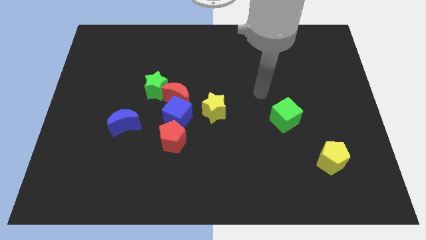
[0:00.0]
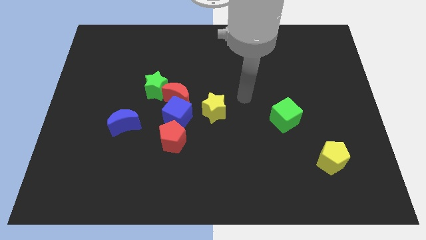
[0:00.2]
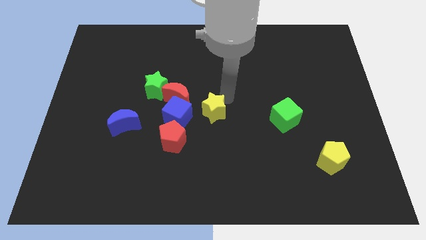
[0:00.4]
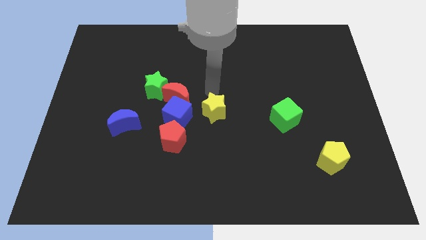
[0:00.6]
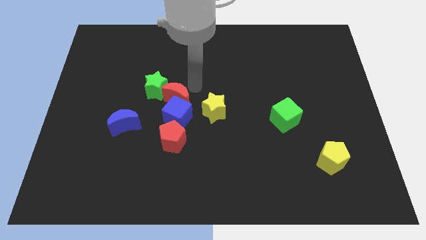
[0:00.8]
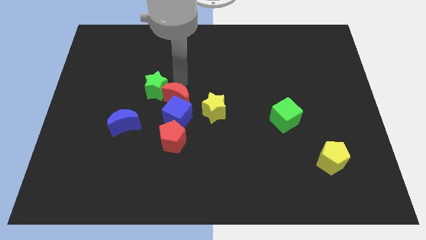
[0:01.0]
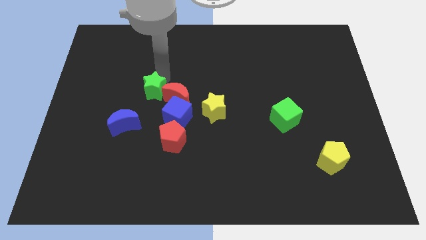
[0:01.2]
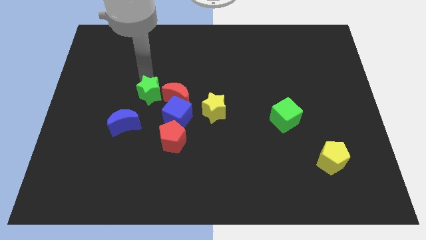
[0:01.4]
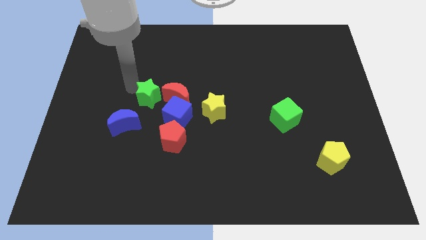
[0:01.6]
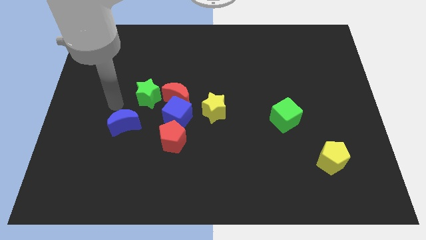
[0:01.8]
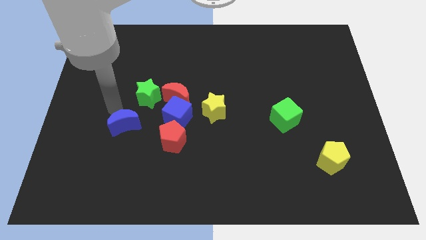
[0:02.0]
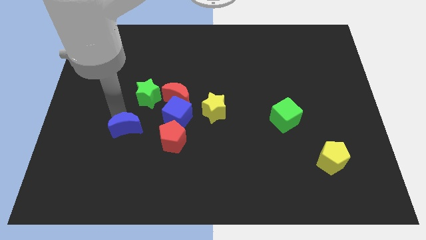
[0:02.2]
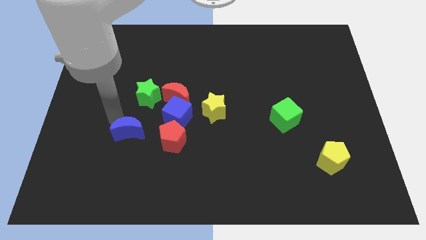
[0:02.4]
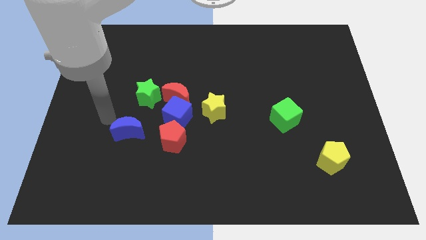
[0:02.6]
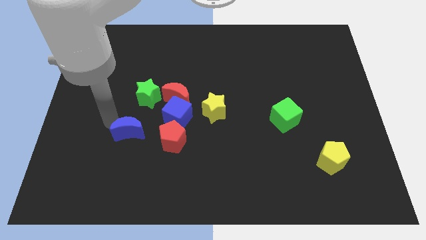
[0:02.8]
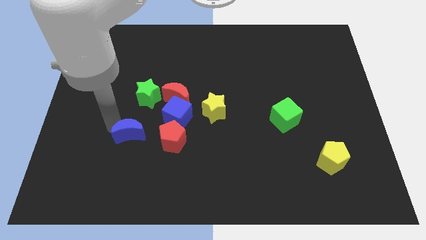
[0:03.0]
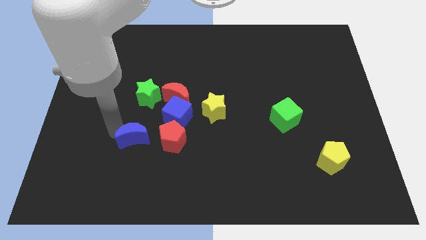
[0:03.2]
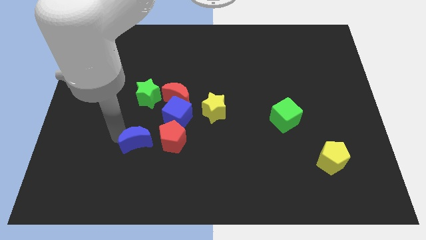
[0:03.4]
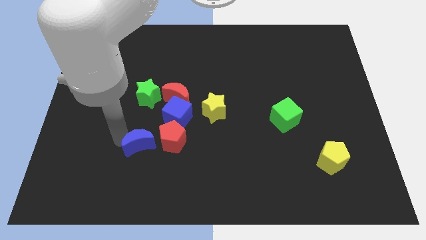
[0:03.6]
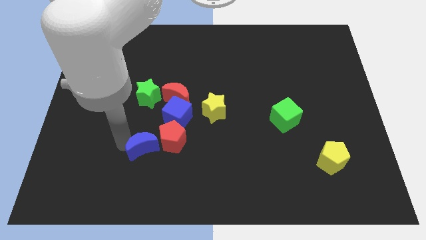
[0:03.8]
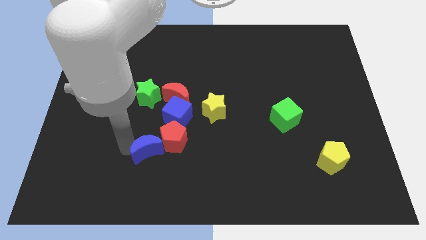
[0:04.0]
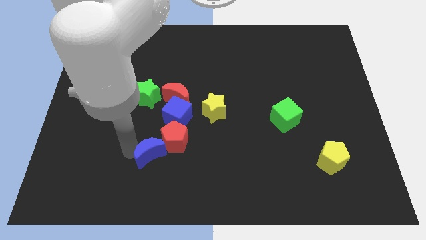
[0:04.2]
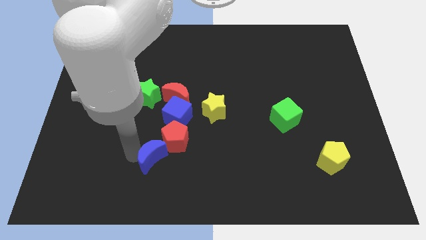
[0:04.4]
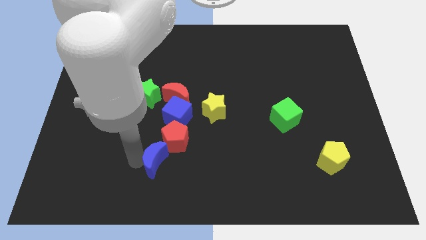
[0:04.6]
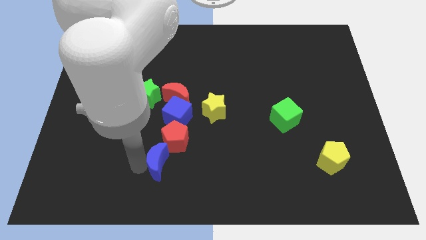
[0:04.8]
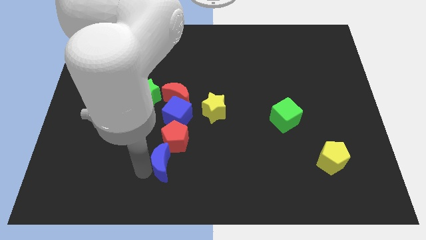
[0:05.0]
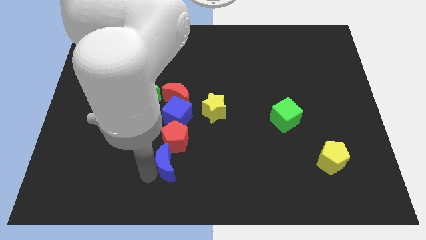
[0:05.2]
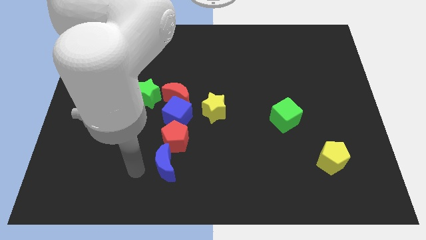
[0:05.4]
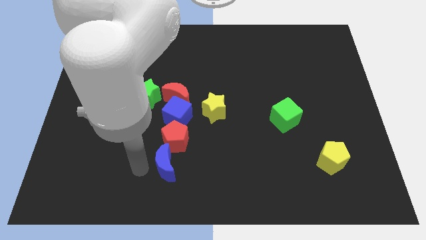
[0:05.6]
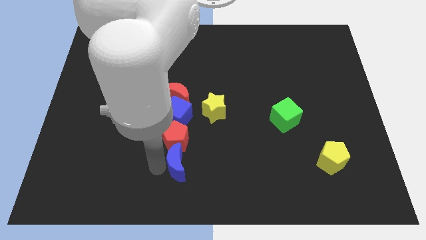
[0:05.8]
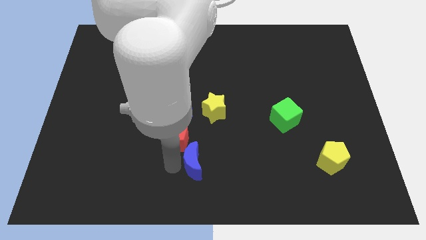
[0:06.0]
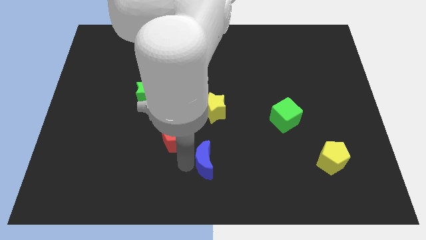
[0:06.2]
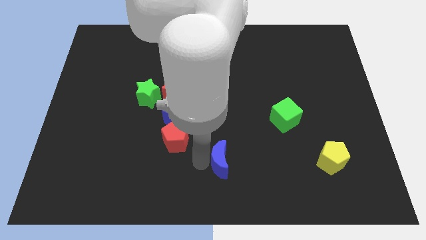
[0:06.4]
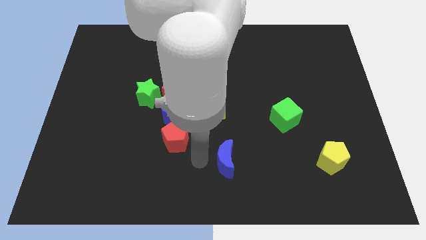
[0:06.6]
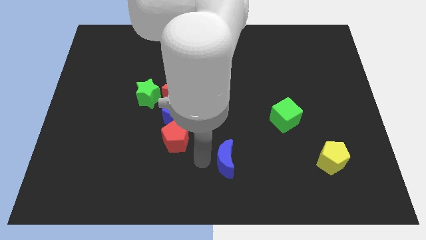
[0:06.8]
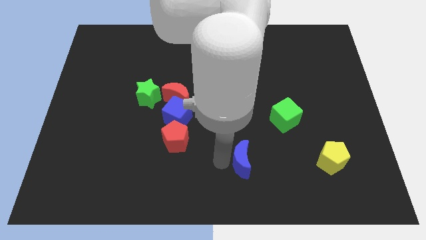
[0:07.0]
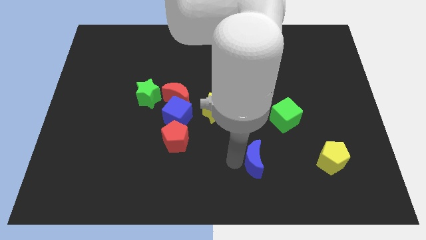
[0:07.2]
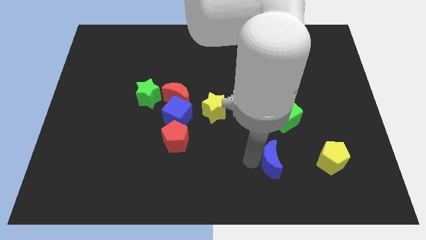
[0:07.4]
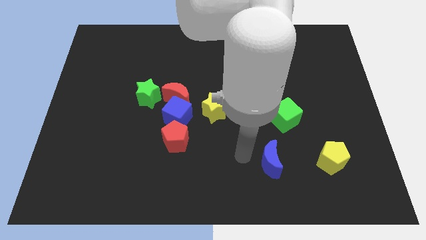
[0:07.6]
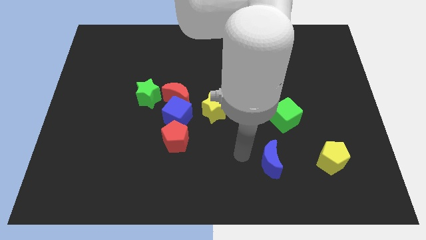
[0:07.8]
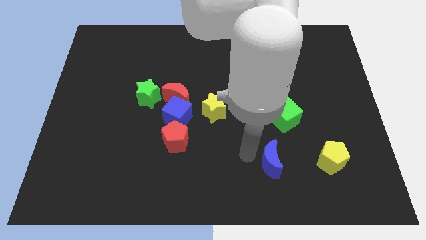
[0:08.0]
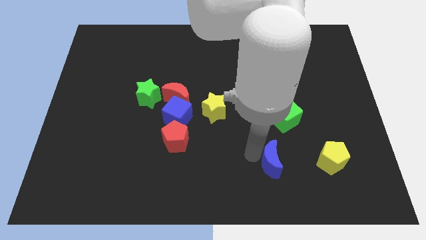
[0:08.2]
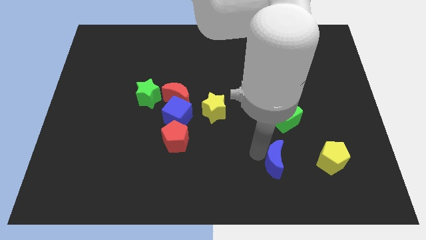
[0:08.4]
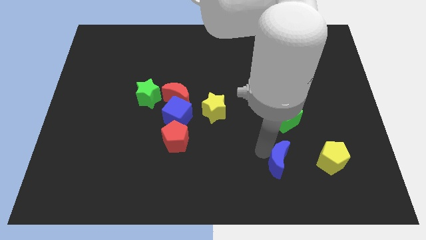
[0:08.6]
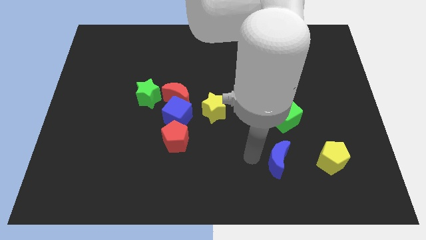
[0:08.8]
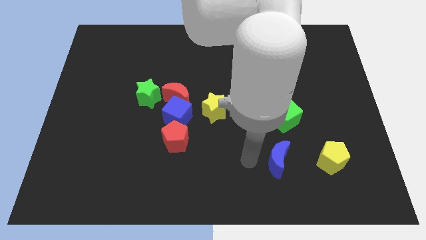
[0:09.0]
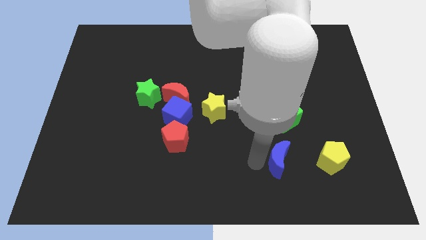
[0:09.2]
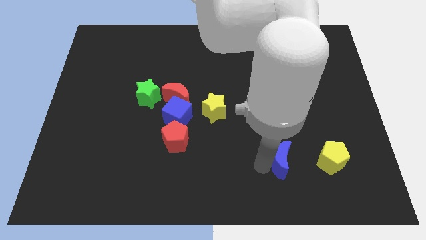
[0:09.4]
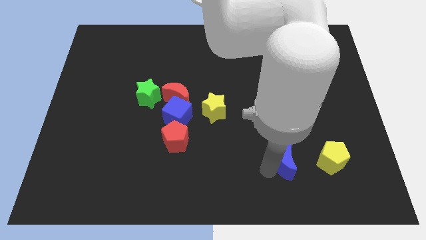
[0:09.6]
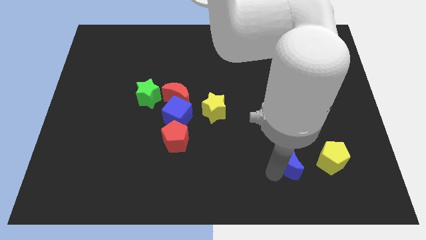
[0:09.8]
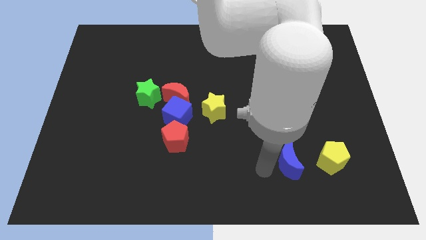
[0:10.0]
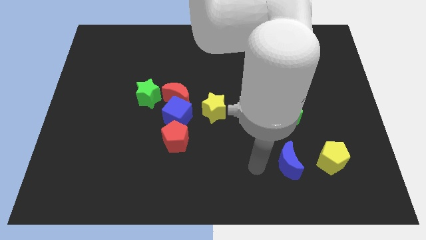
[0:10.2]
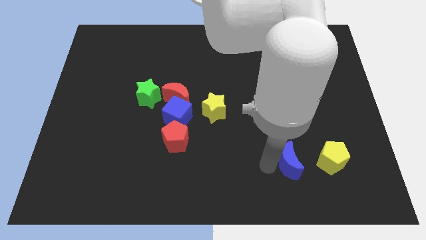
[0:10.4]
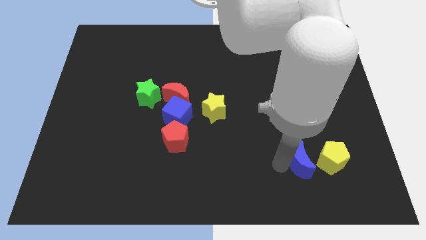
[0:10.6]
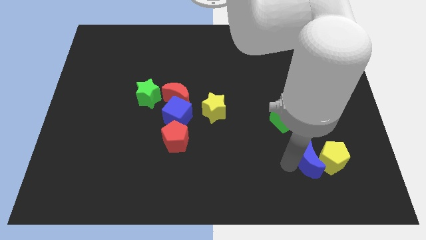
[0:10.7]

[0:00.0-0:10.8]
move the blue moon next to the yellow pentagon

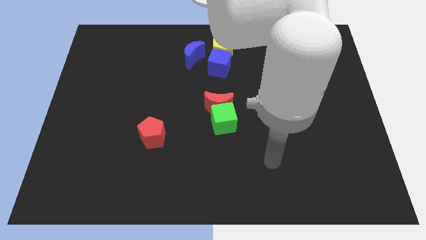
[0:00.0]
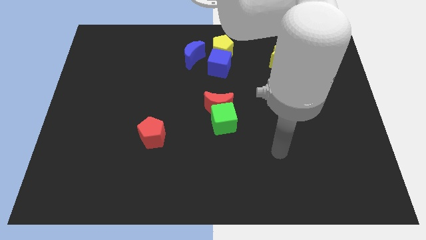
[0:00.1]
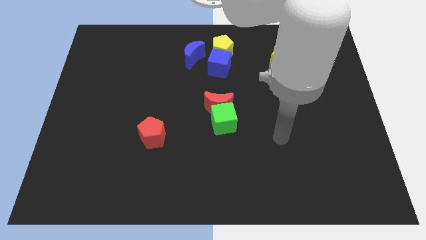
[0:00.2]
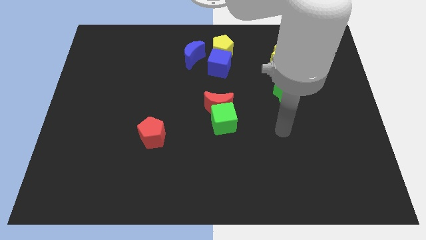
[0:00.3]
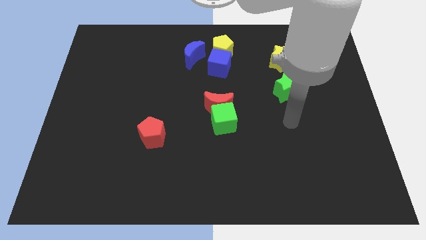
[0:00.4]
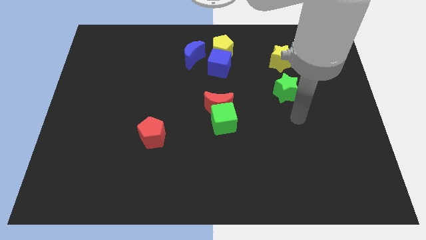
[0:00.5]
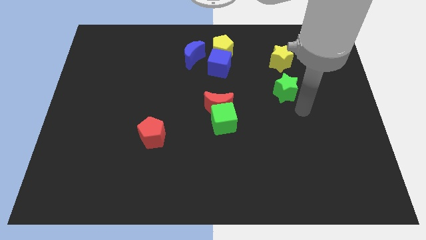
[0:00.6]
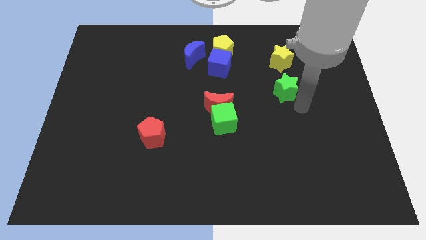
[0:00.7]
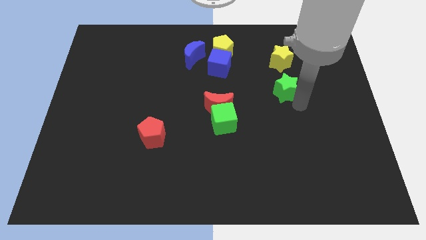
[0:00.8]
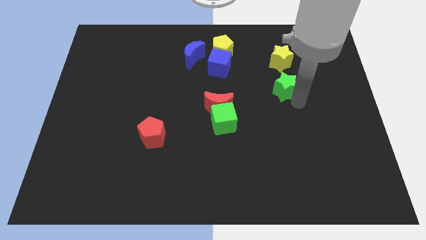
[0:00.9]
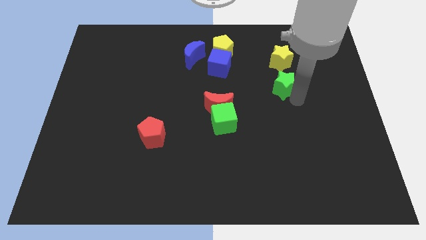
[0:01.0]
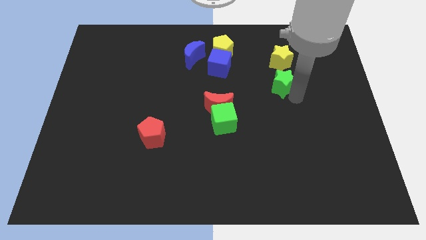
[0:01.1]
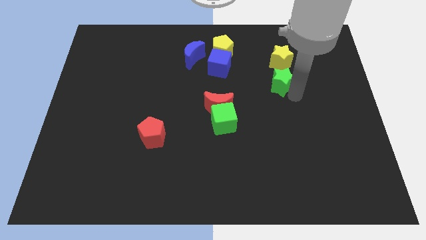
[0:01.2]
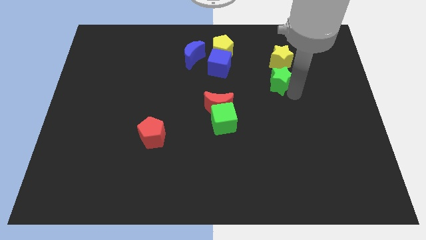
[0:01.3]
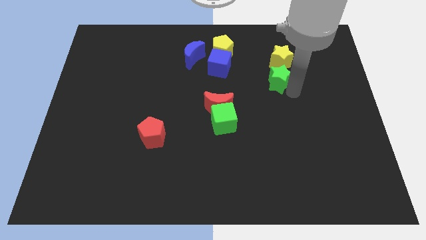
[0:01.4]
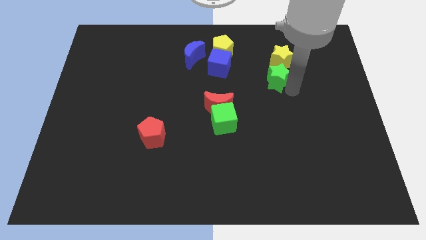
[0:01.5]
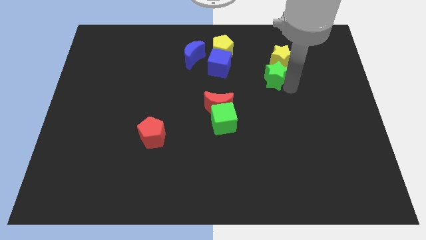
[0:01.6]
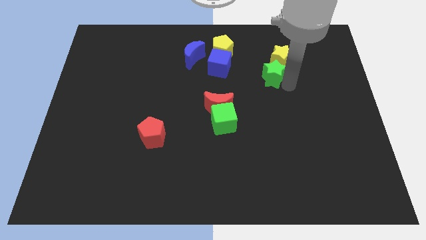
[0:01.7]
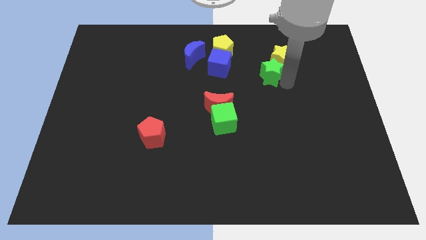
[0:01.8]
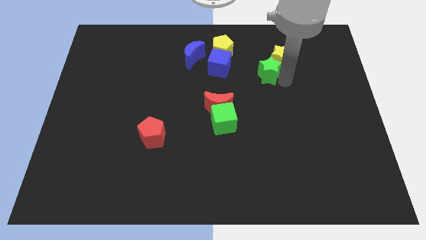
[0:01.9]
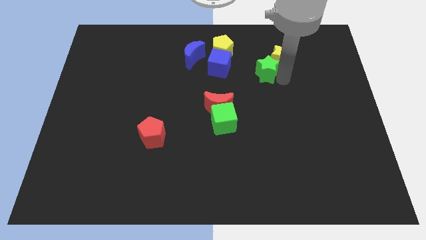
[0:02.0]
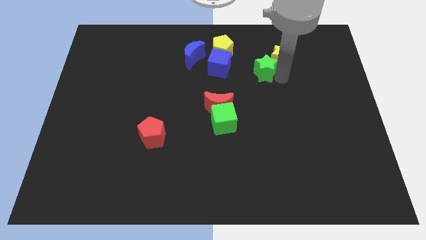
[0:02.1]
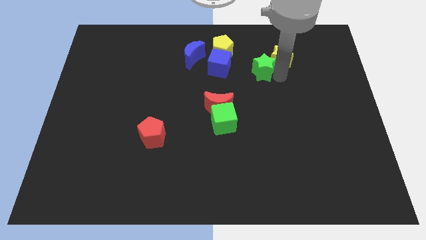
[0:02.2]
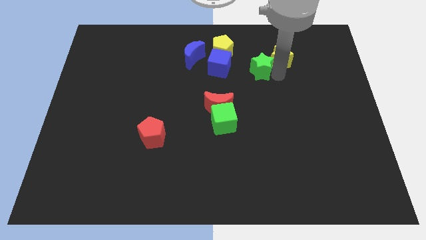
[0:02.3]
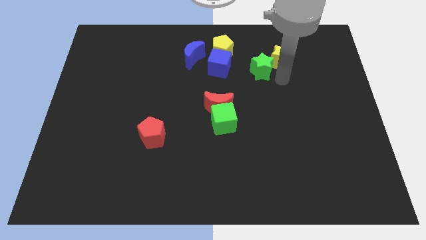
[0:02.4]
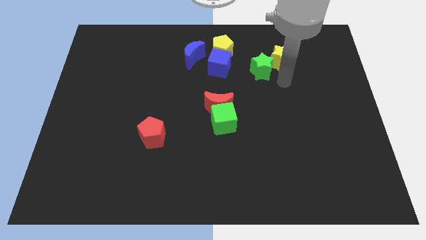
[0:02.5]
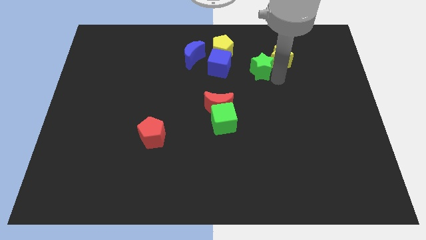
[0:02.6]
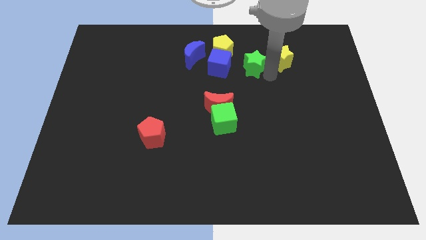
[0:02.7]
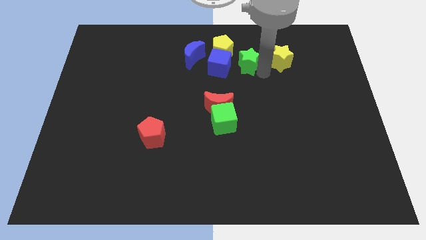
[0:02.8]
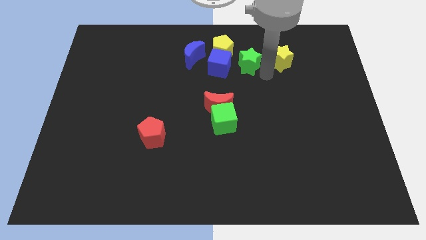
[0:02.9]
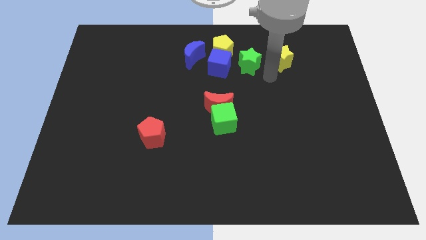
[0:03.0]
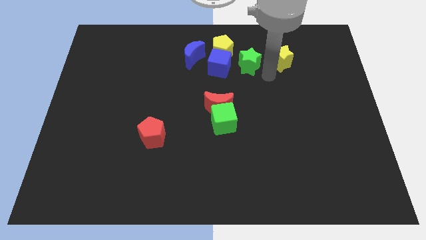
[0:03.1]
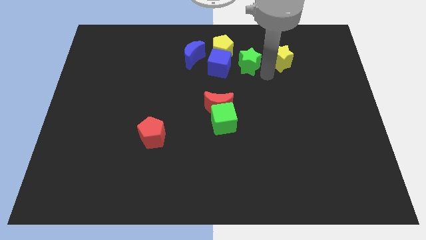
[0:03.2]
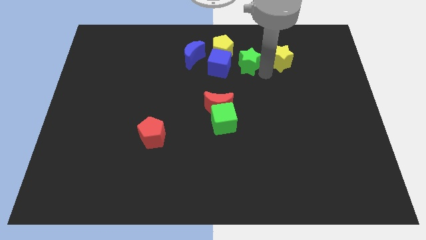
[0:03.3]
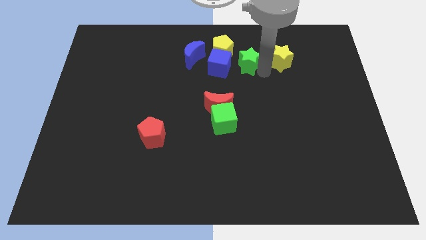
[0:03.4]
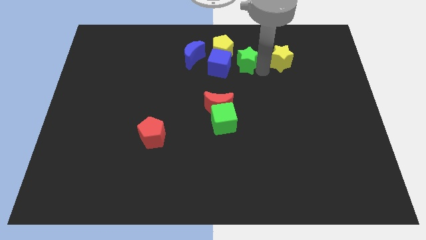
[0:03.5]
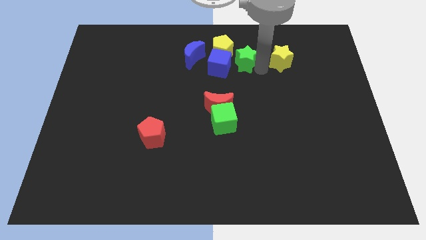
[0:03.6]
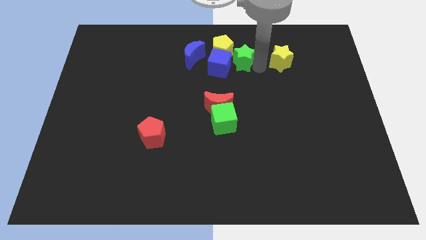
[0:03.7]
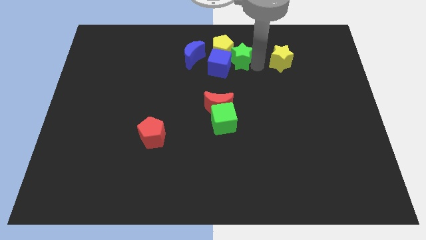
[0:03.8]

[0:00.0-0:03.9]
slide the green star next to the yellow pentagon
